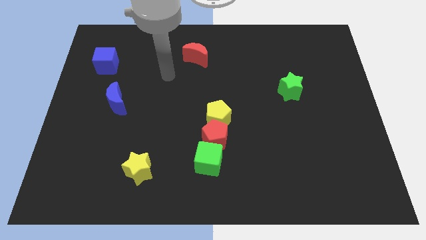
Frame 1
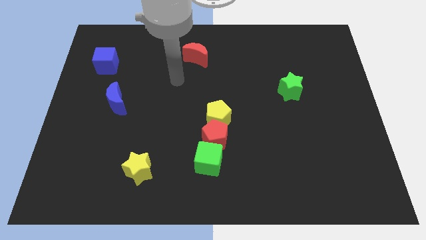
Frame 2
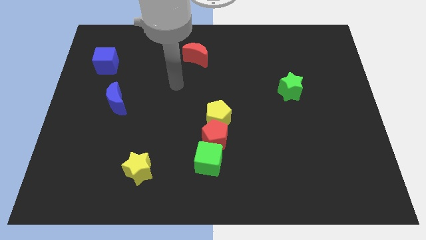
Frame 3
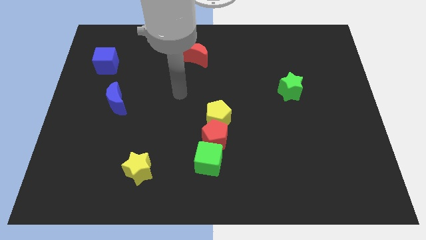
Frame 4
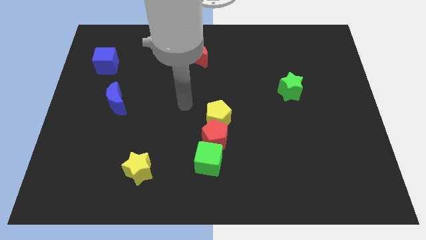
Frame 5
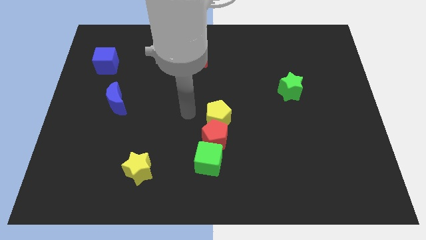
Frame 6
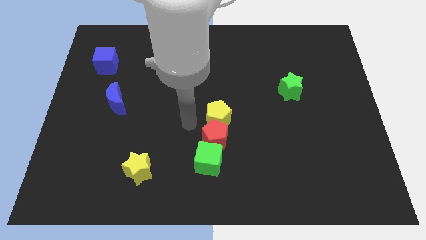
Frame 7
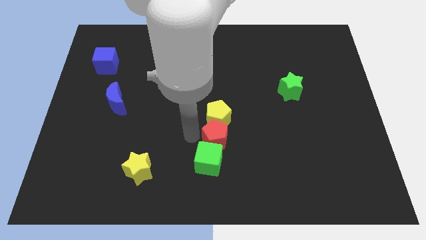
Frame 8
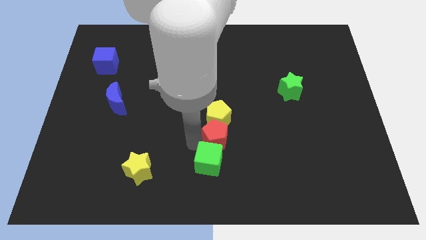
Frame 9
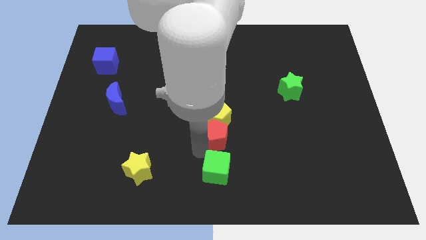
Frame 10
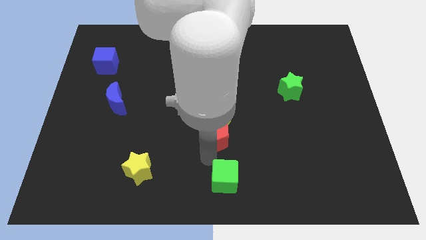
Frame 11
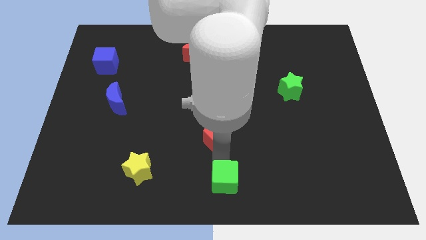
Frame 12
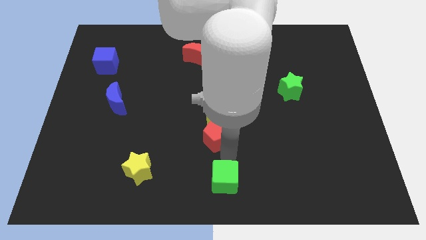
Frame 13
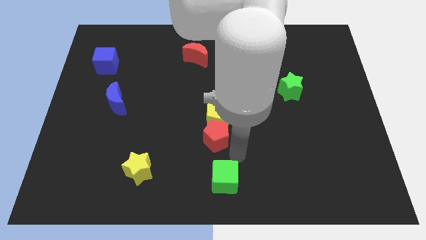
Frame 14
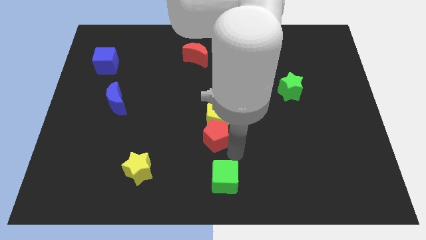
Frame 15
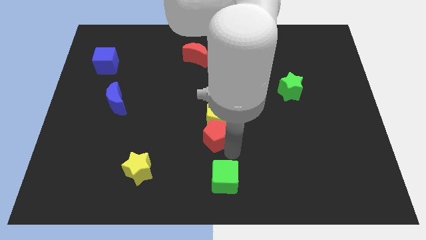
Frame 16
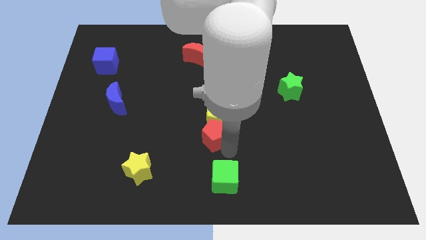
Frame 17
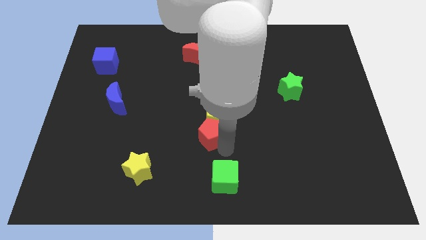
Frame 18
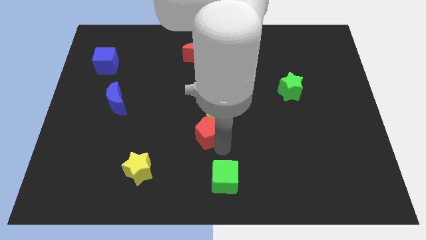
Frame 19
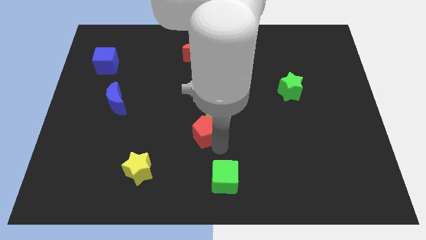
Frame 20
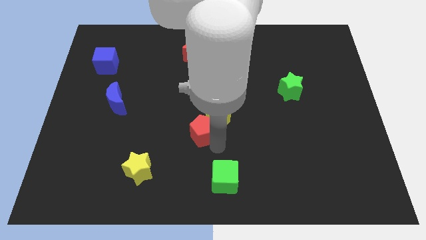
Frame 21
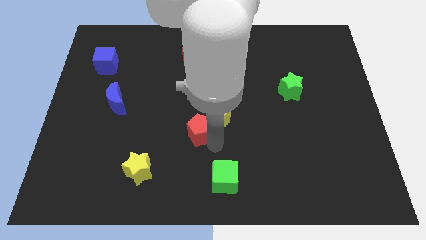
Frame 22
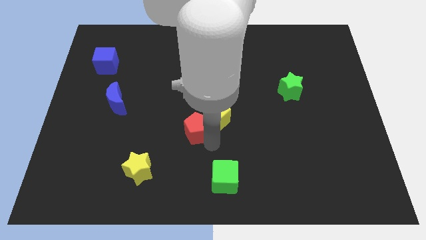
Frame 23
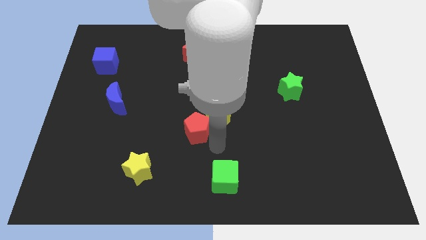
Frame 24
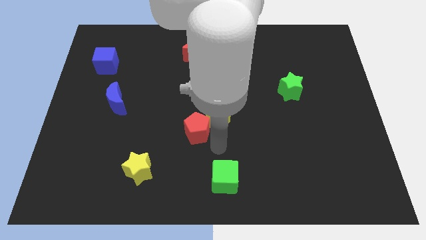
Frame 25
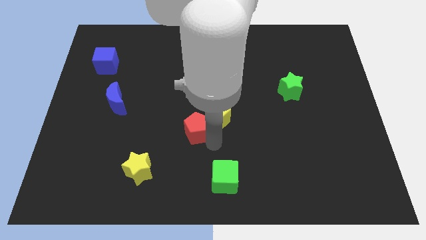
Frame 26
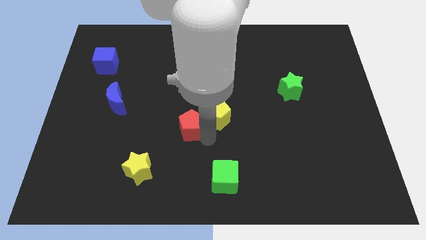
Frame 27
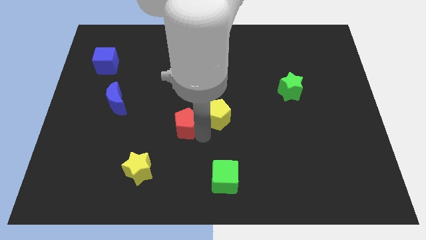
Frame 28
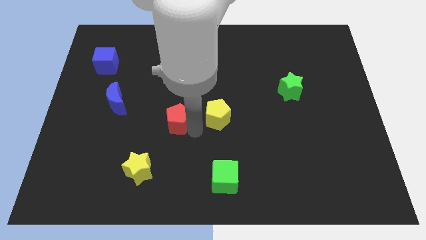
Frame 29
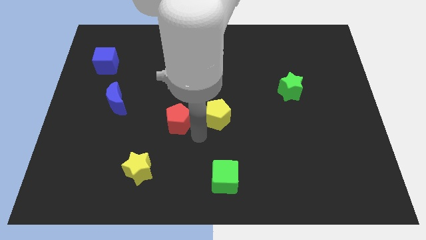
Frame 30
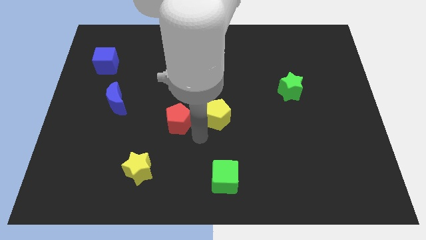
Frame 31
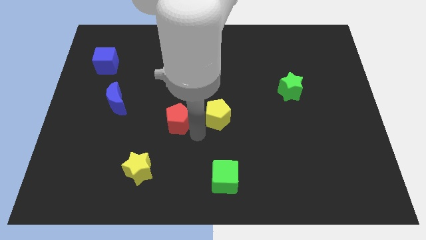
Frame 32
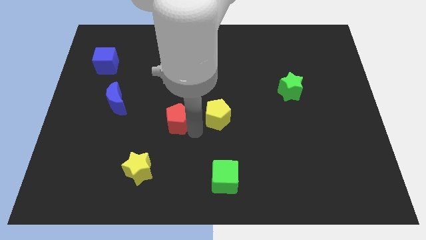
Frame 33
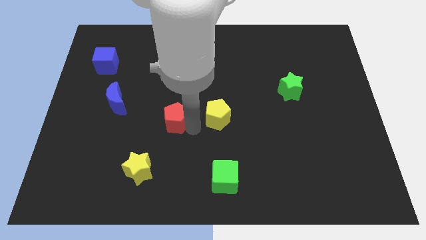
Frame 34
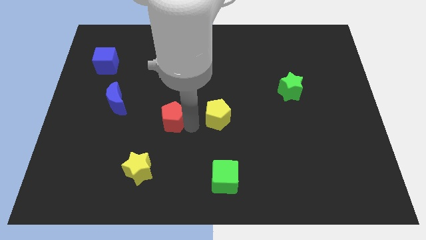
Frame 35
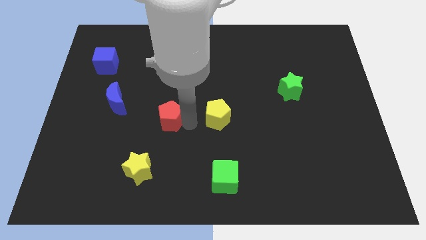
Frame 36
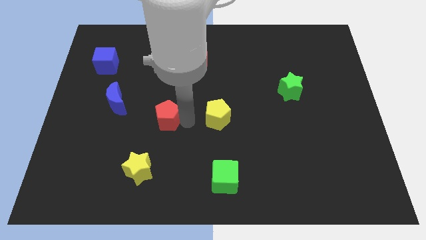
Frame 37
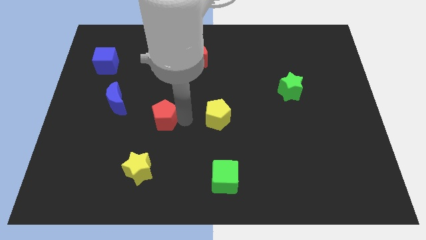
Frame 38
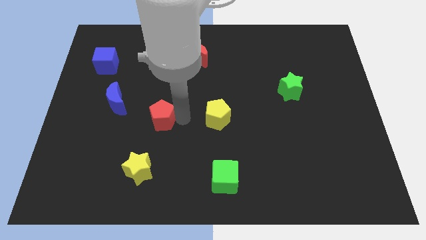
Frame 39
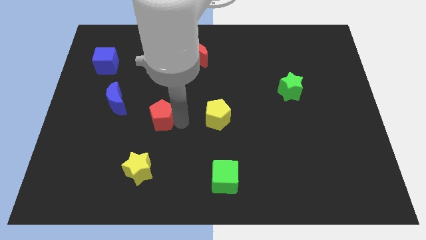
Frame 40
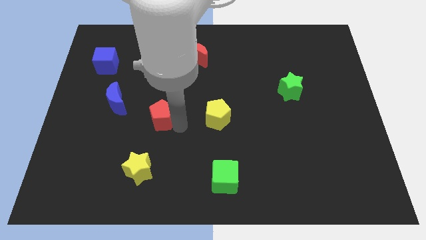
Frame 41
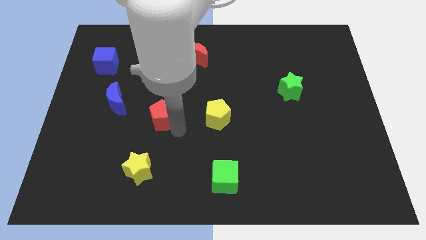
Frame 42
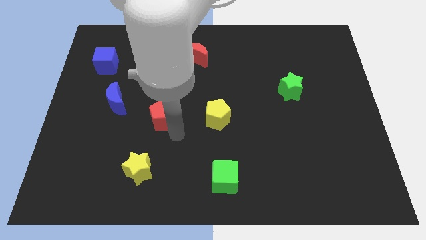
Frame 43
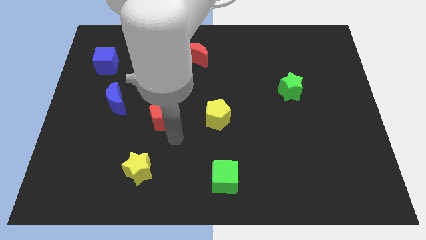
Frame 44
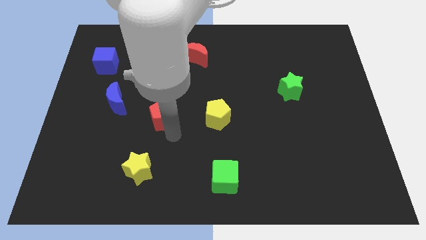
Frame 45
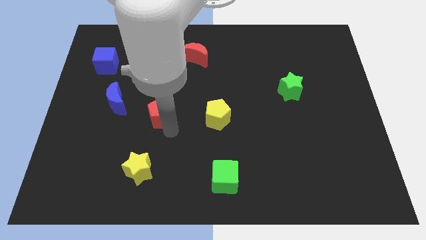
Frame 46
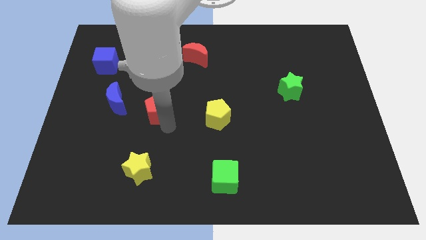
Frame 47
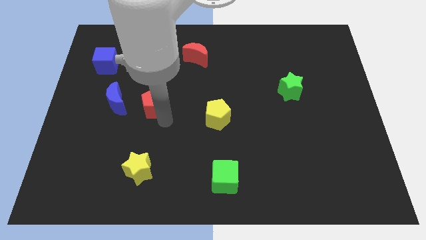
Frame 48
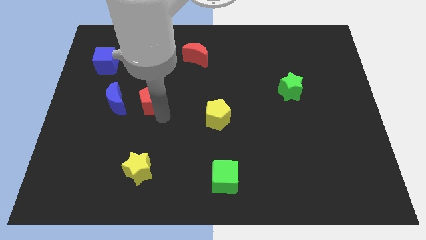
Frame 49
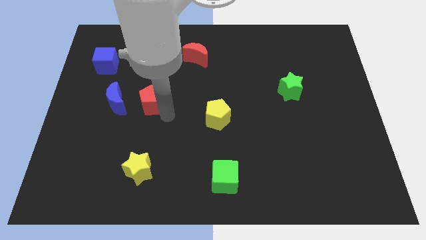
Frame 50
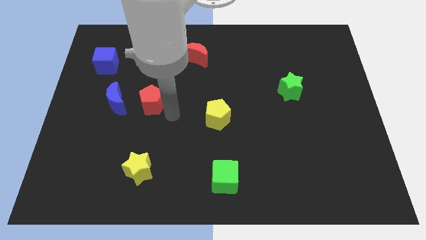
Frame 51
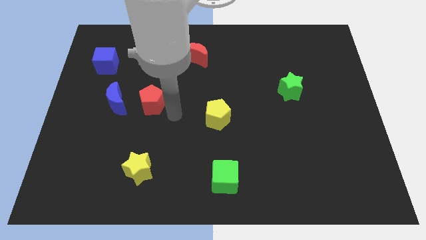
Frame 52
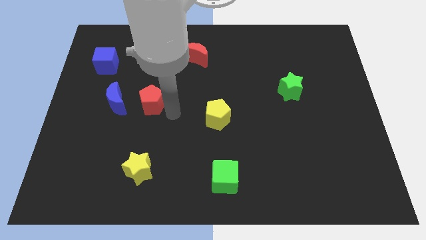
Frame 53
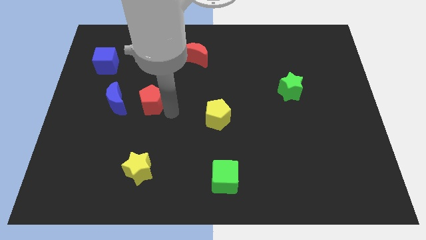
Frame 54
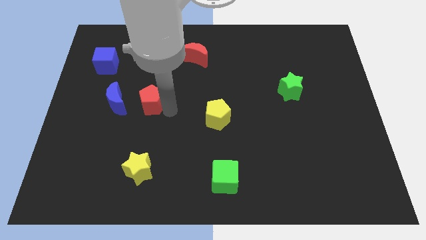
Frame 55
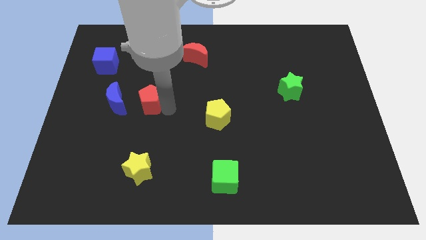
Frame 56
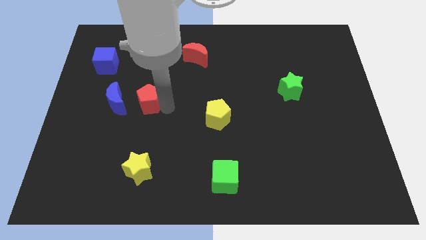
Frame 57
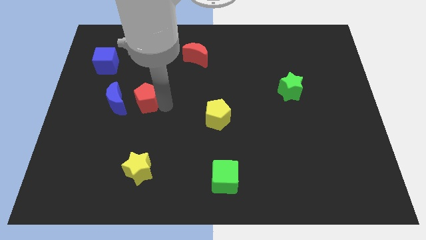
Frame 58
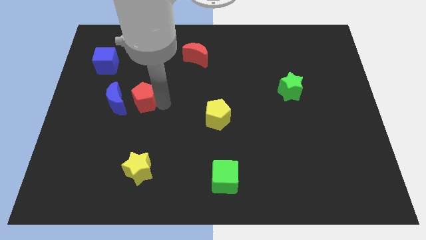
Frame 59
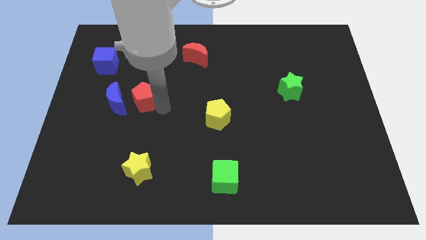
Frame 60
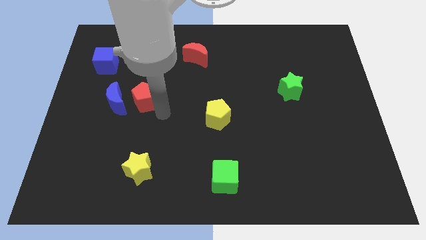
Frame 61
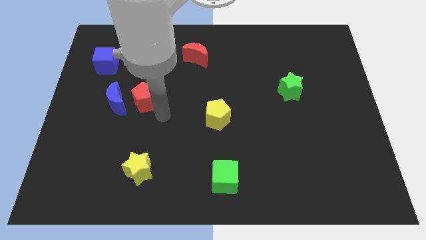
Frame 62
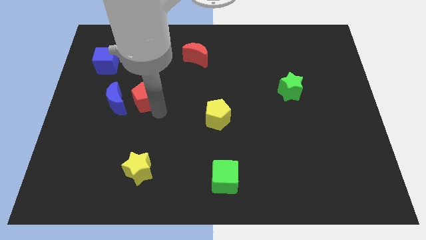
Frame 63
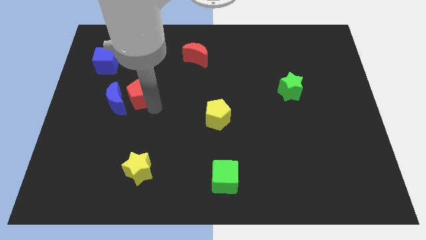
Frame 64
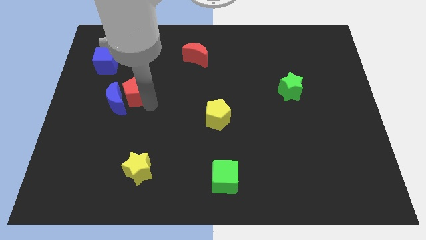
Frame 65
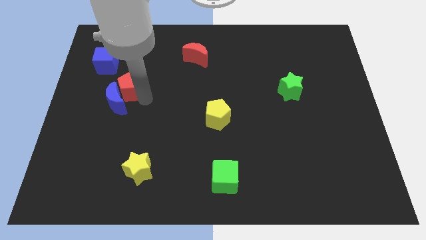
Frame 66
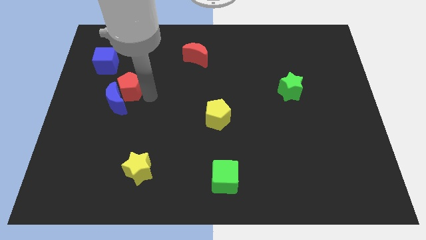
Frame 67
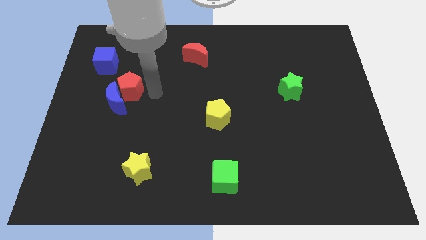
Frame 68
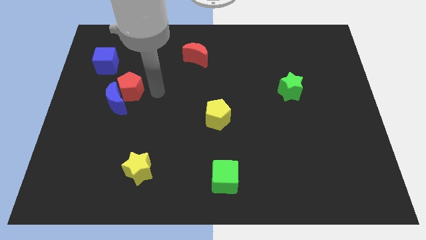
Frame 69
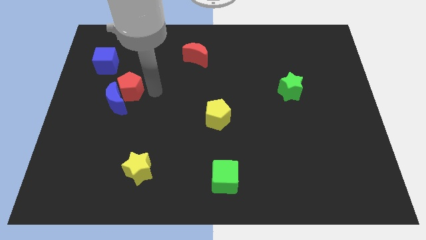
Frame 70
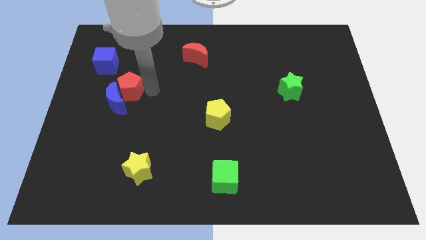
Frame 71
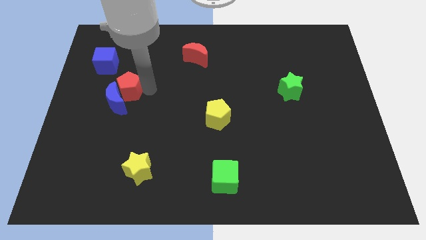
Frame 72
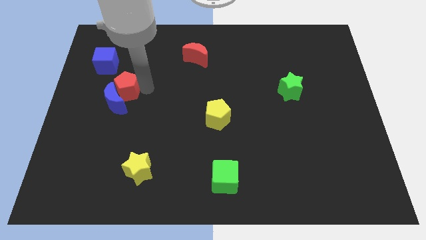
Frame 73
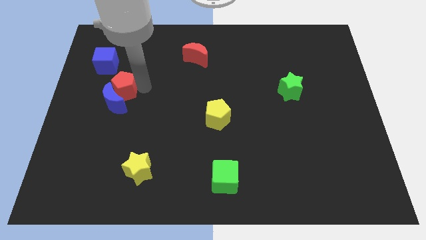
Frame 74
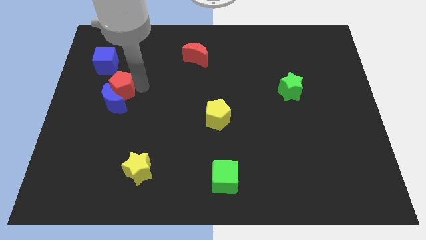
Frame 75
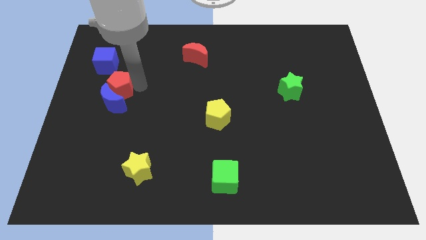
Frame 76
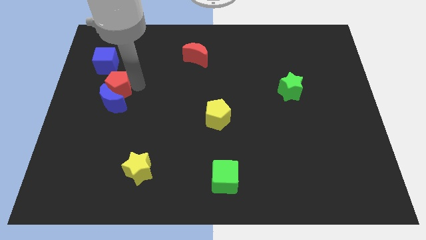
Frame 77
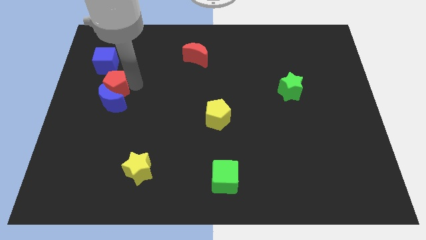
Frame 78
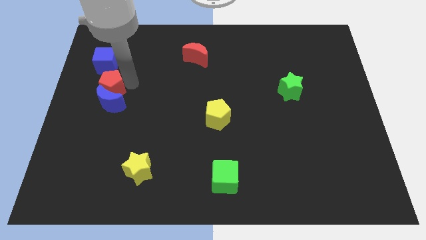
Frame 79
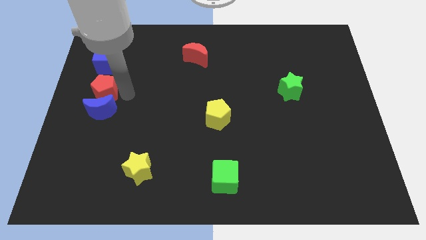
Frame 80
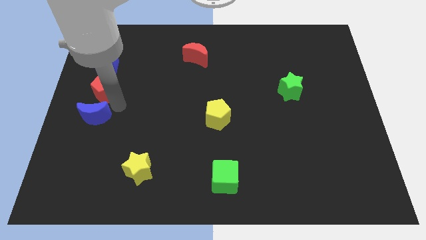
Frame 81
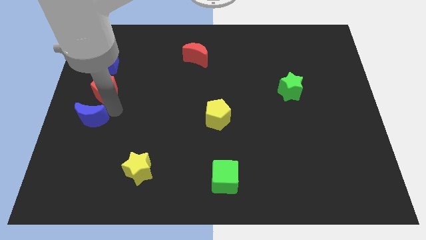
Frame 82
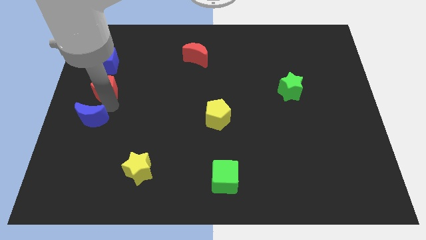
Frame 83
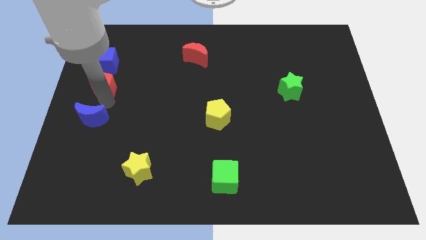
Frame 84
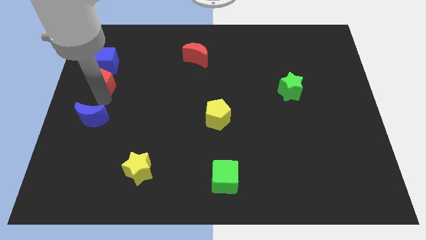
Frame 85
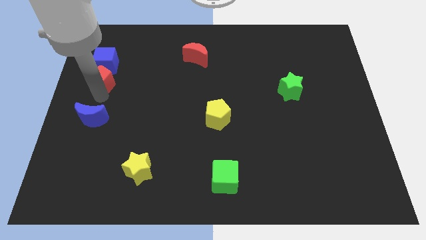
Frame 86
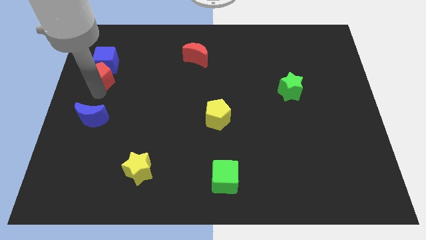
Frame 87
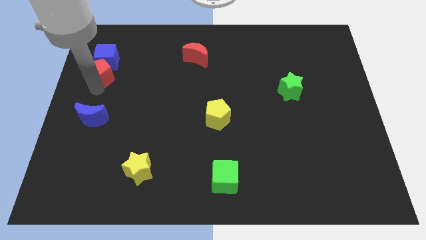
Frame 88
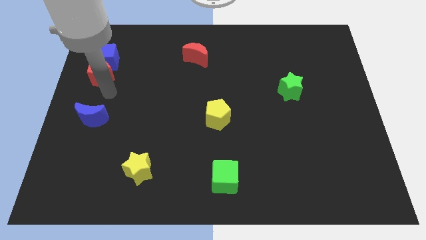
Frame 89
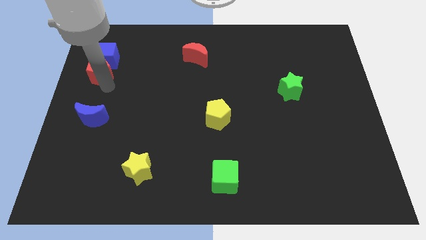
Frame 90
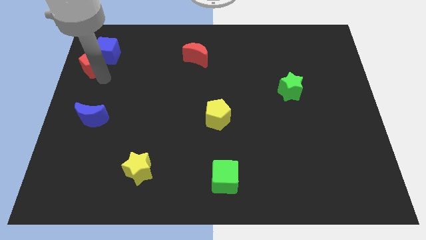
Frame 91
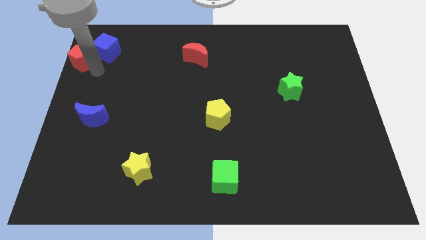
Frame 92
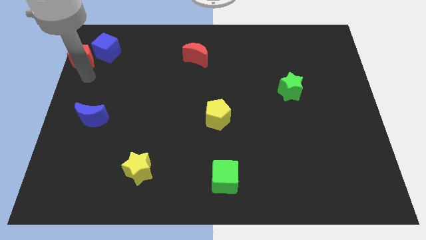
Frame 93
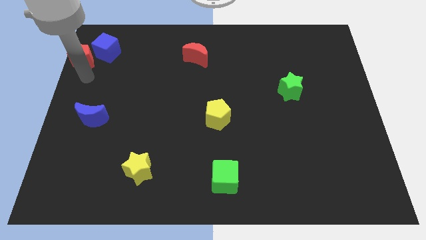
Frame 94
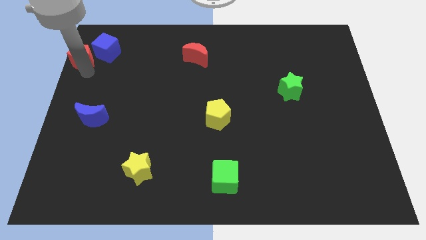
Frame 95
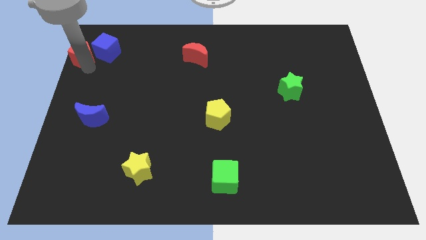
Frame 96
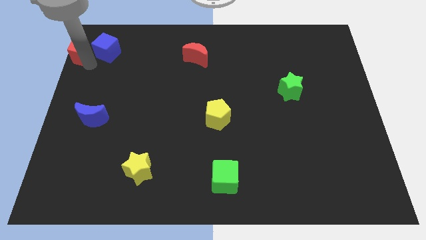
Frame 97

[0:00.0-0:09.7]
move the red pentagon to the top left
